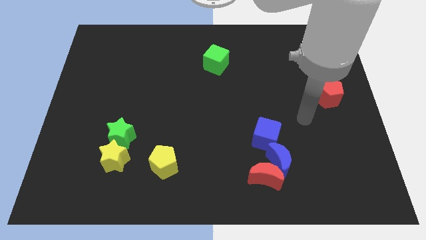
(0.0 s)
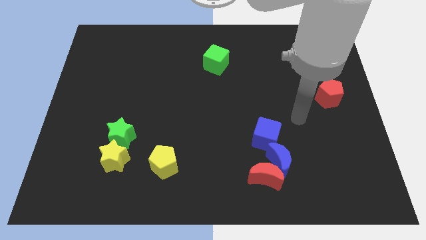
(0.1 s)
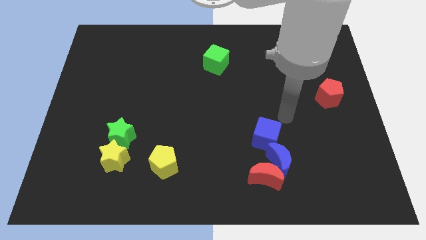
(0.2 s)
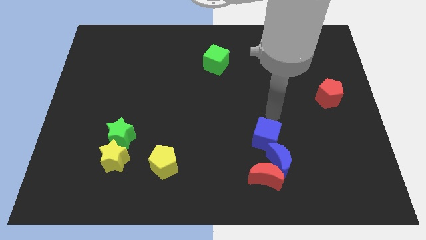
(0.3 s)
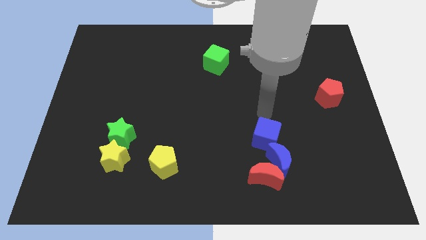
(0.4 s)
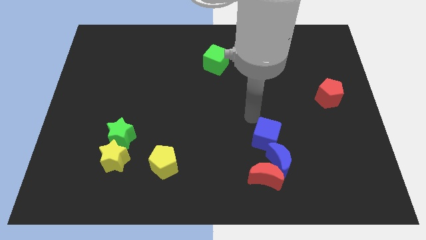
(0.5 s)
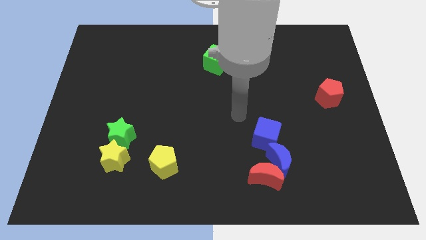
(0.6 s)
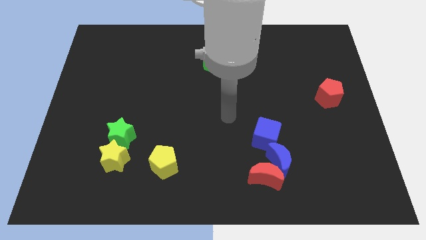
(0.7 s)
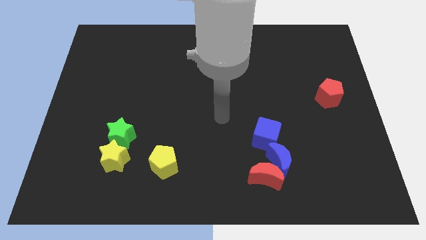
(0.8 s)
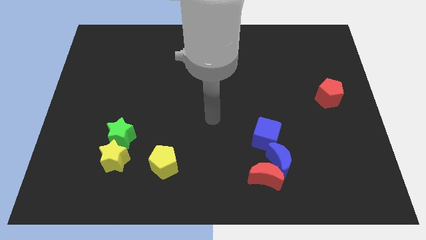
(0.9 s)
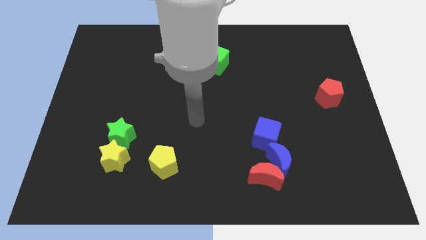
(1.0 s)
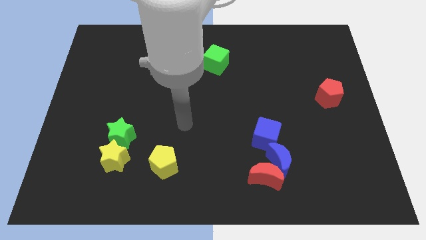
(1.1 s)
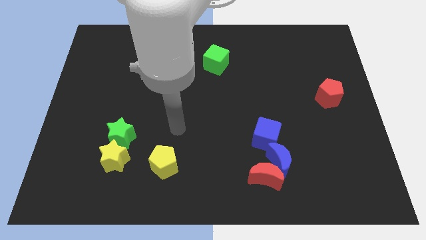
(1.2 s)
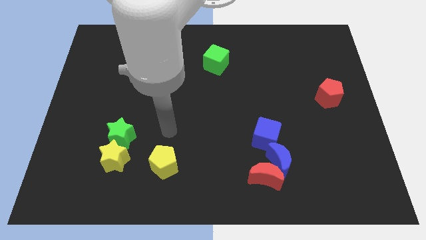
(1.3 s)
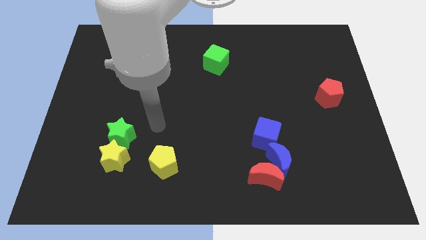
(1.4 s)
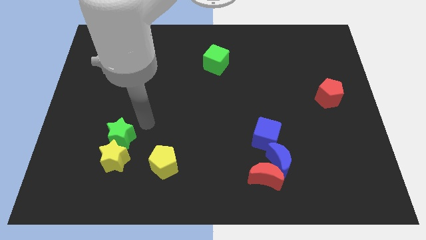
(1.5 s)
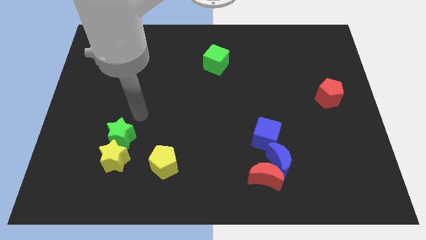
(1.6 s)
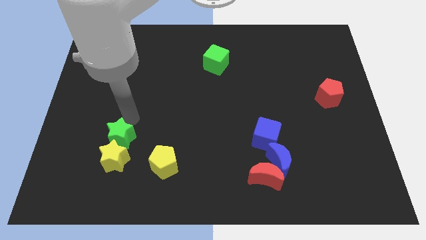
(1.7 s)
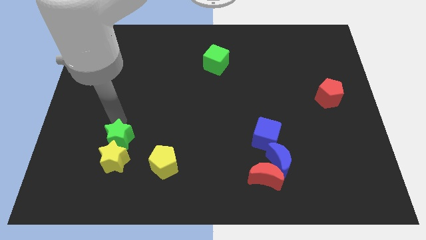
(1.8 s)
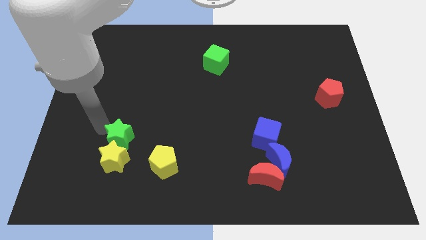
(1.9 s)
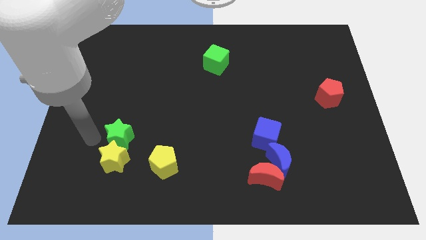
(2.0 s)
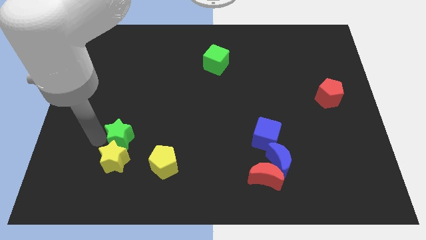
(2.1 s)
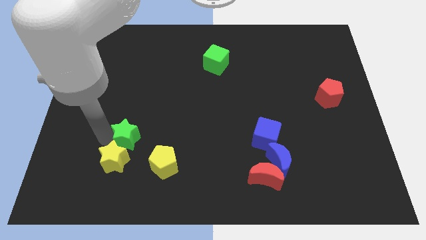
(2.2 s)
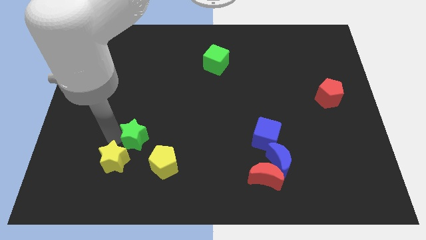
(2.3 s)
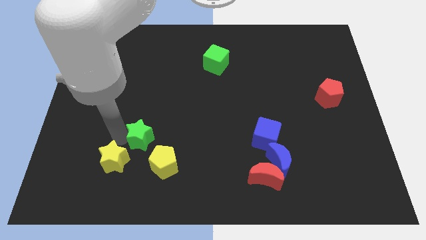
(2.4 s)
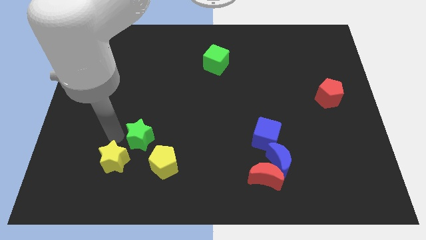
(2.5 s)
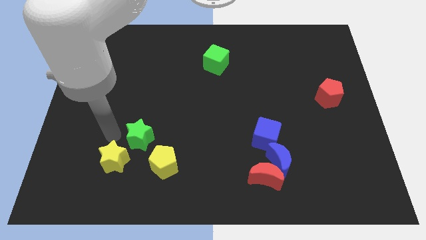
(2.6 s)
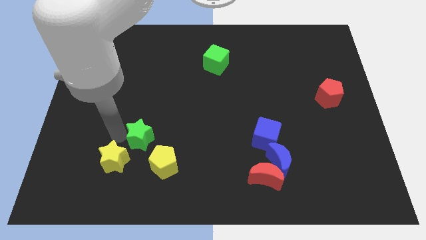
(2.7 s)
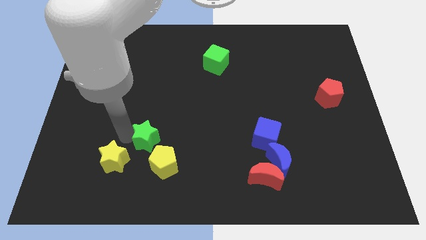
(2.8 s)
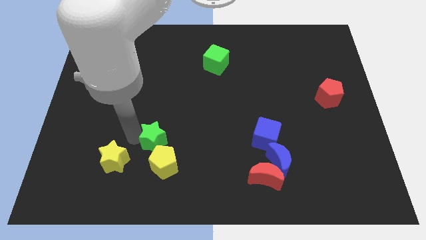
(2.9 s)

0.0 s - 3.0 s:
move the green star a little to the right

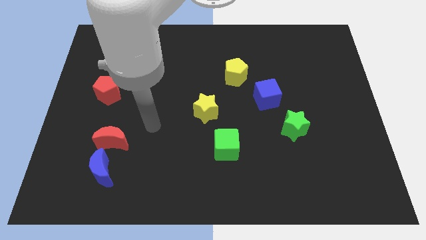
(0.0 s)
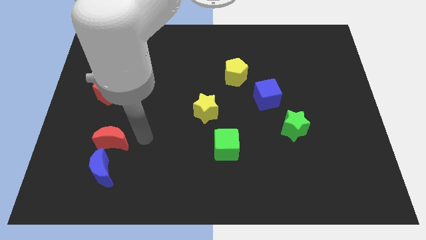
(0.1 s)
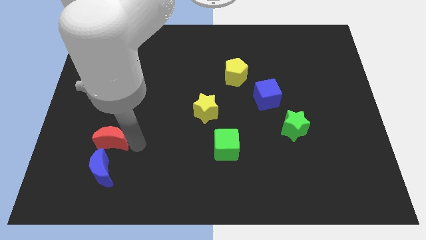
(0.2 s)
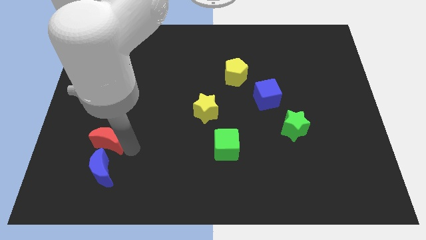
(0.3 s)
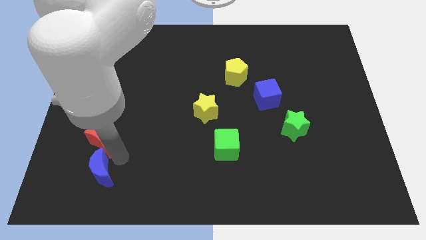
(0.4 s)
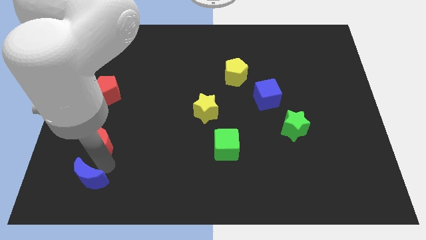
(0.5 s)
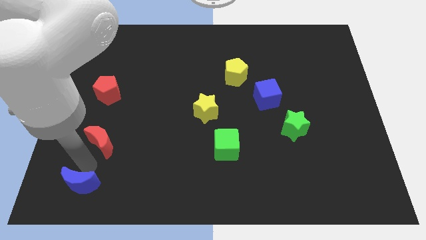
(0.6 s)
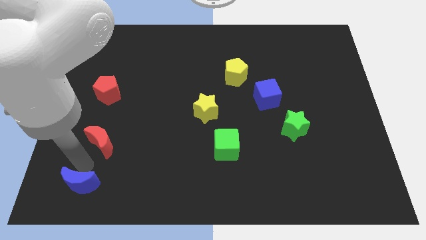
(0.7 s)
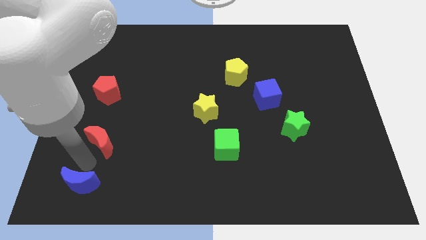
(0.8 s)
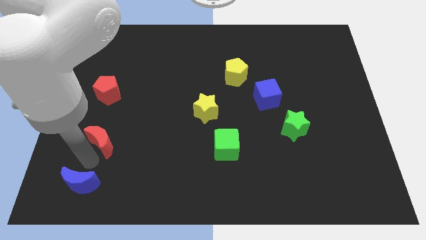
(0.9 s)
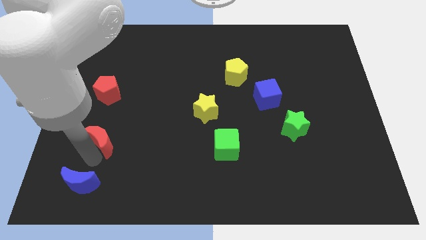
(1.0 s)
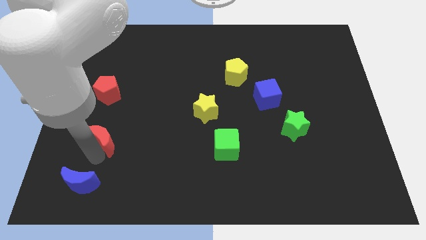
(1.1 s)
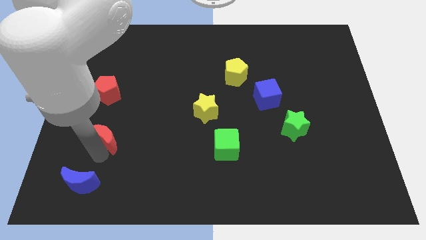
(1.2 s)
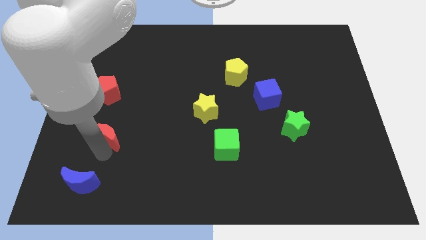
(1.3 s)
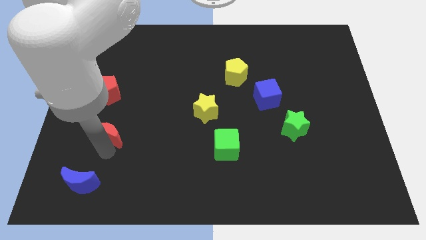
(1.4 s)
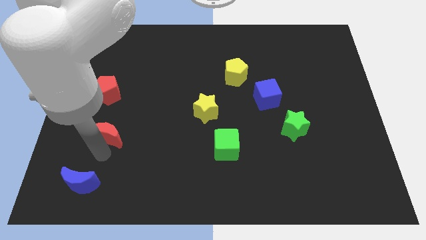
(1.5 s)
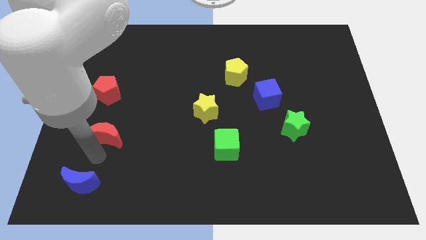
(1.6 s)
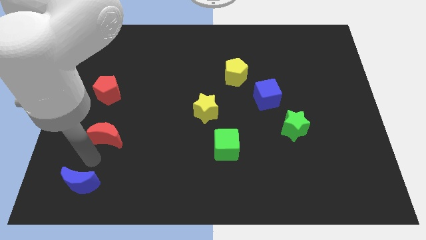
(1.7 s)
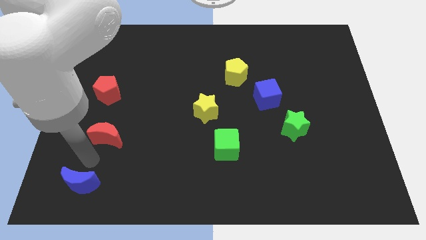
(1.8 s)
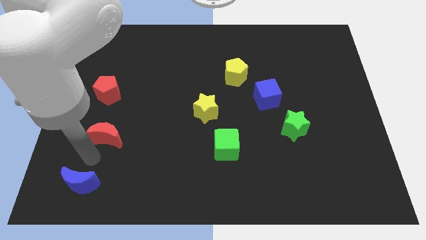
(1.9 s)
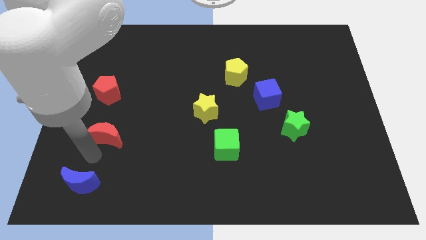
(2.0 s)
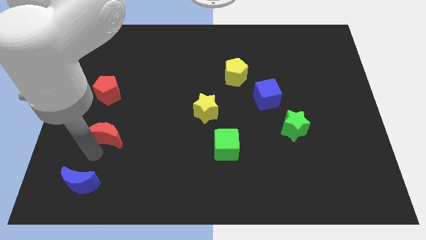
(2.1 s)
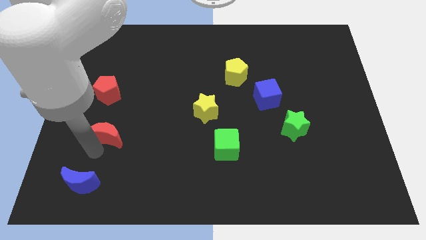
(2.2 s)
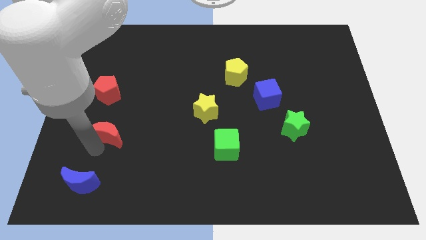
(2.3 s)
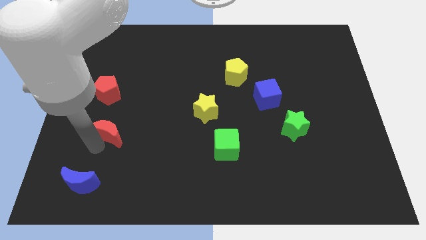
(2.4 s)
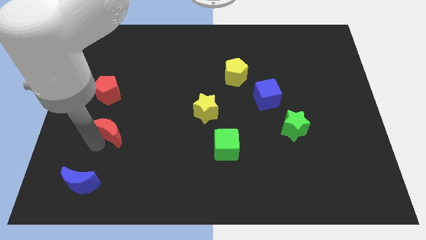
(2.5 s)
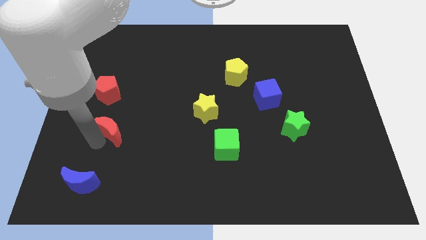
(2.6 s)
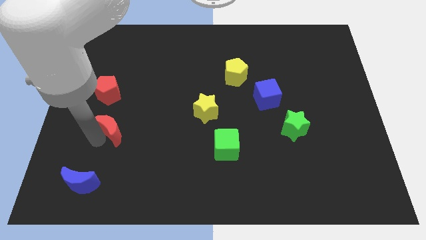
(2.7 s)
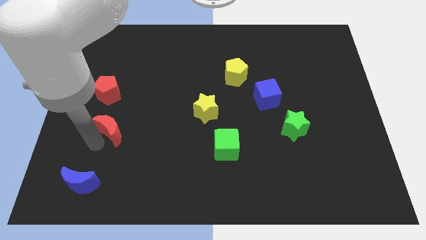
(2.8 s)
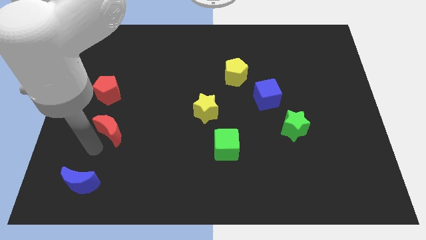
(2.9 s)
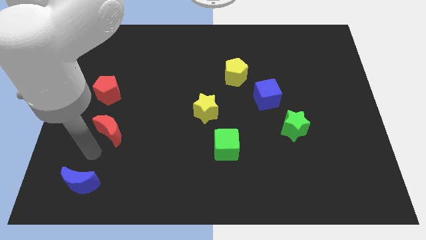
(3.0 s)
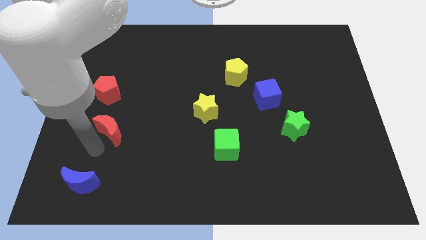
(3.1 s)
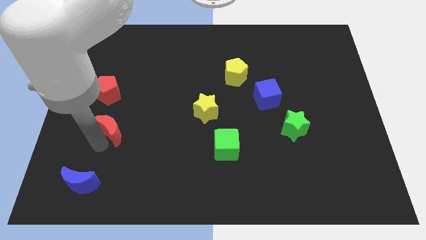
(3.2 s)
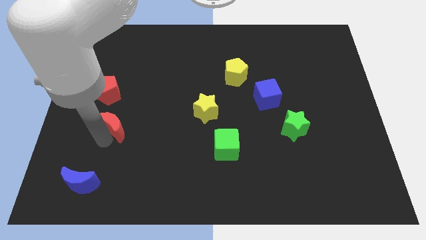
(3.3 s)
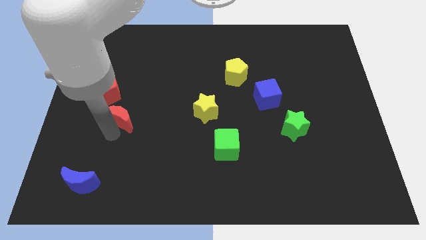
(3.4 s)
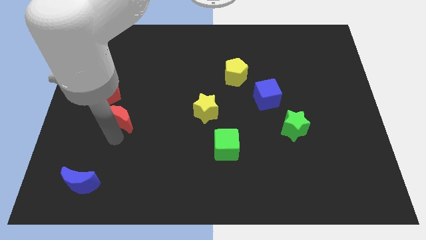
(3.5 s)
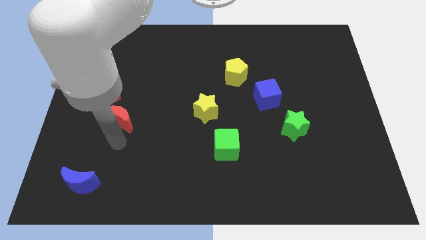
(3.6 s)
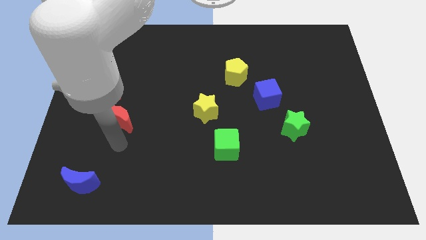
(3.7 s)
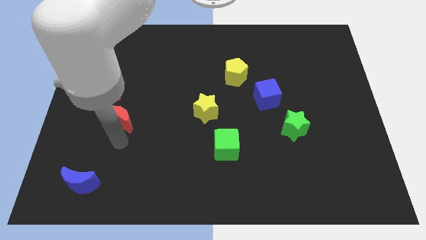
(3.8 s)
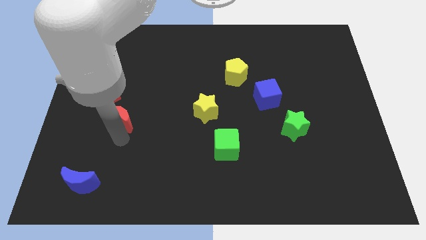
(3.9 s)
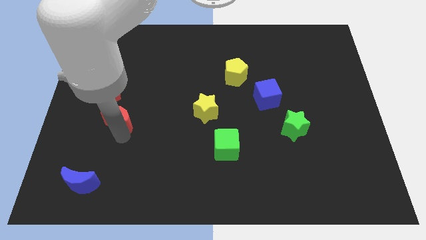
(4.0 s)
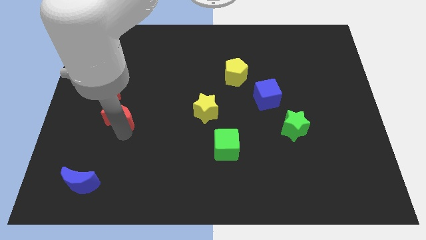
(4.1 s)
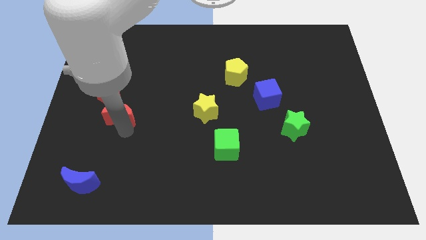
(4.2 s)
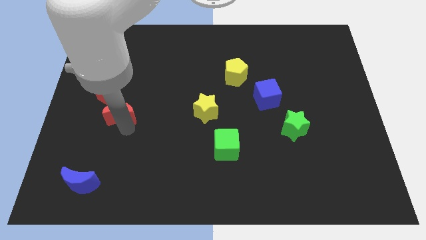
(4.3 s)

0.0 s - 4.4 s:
push the red moon slightly upwards

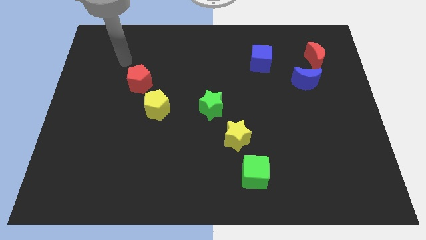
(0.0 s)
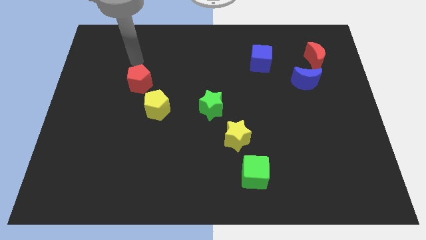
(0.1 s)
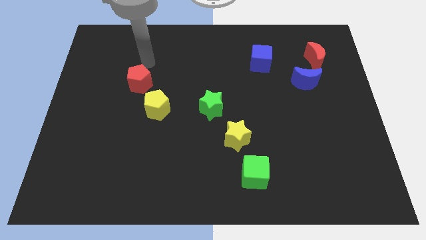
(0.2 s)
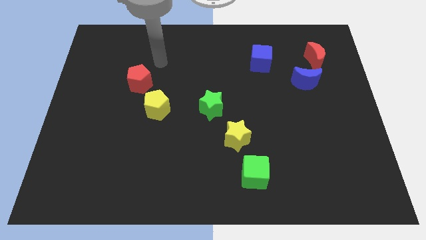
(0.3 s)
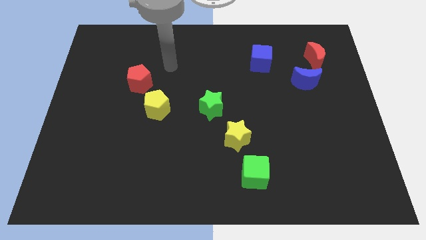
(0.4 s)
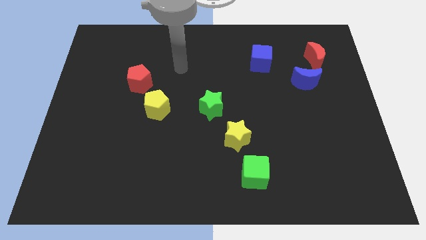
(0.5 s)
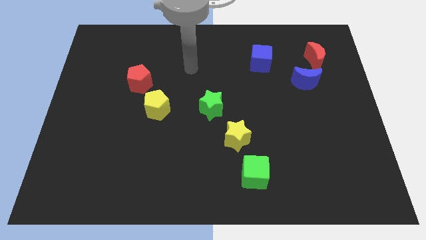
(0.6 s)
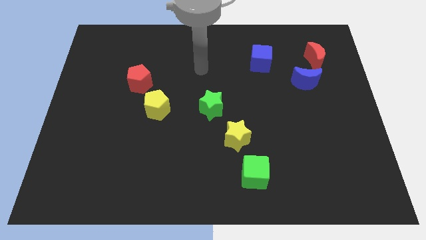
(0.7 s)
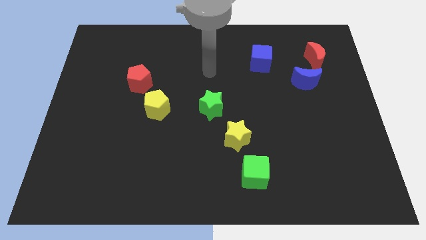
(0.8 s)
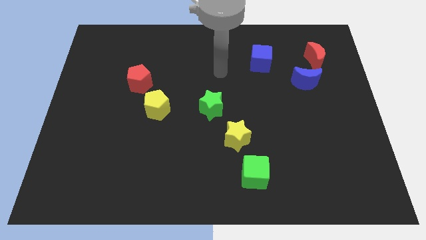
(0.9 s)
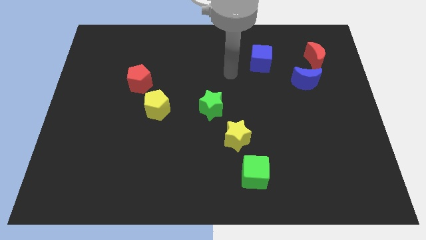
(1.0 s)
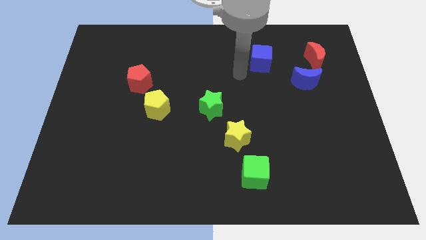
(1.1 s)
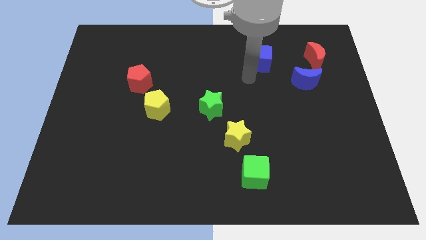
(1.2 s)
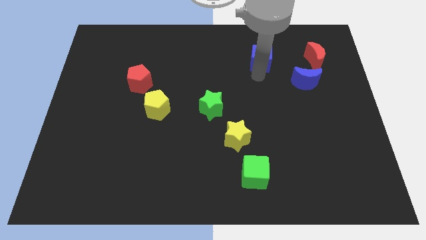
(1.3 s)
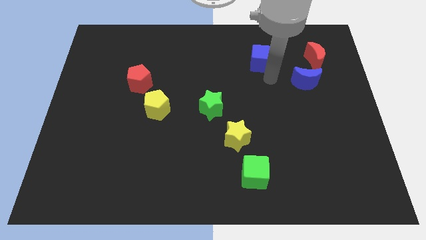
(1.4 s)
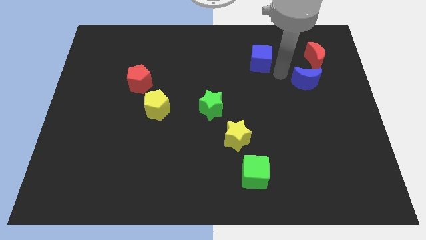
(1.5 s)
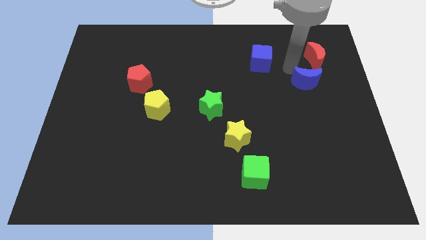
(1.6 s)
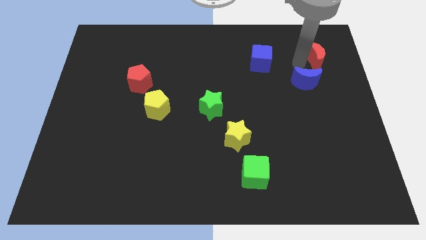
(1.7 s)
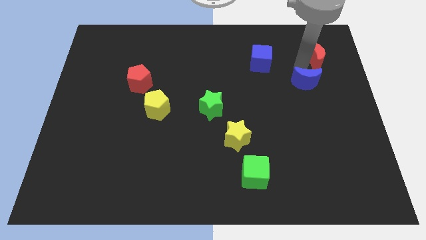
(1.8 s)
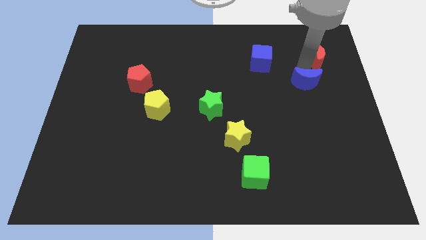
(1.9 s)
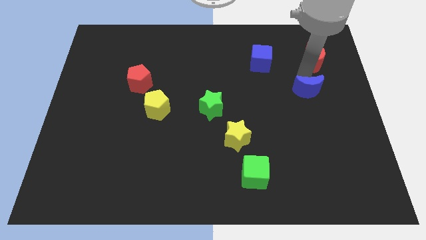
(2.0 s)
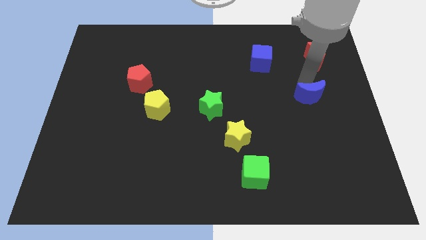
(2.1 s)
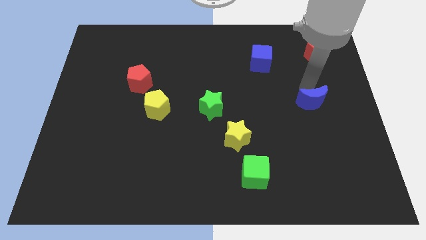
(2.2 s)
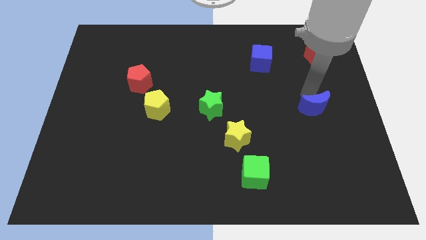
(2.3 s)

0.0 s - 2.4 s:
move the blue moon downwards a little bit
